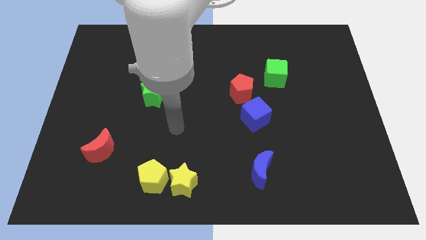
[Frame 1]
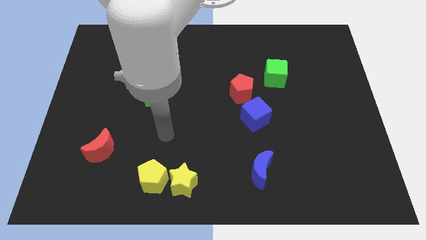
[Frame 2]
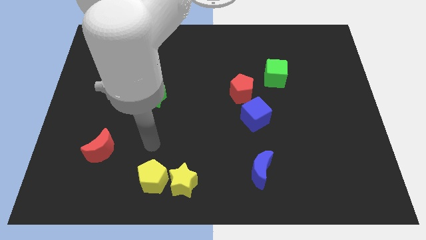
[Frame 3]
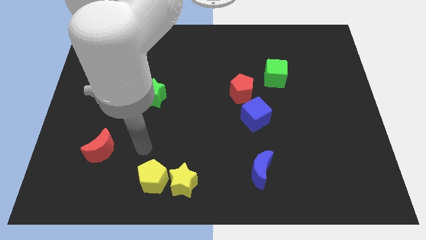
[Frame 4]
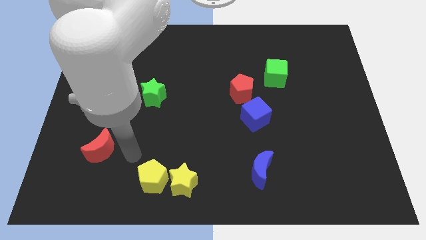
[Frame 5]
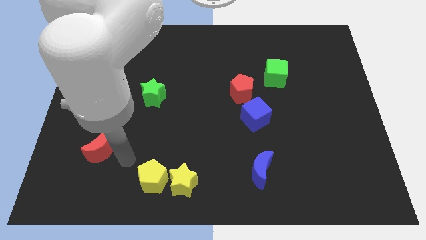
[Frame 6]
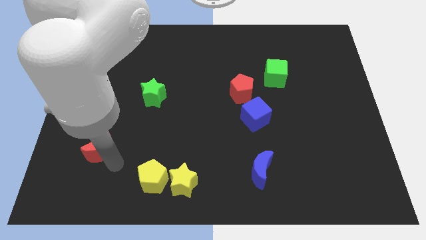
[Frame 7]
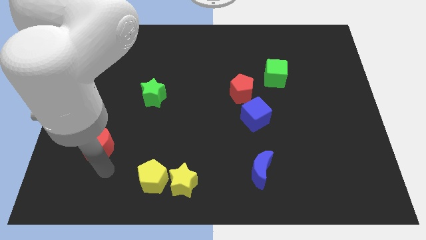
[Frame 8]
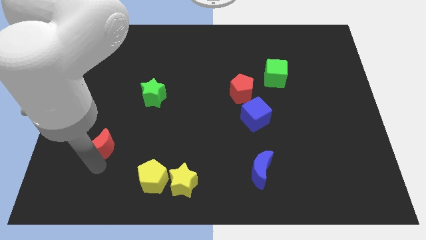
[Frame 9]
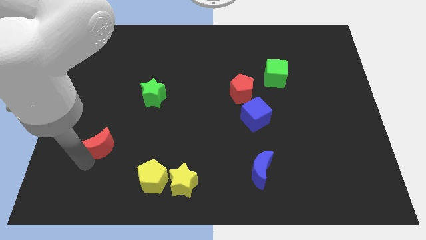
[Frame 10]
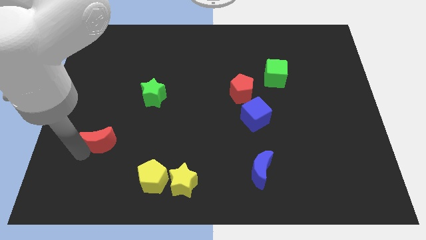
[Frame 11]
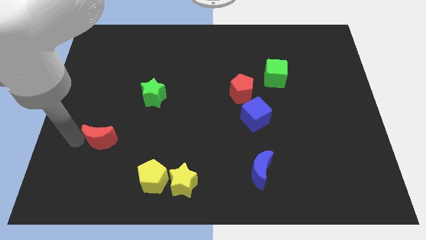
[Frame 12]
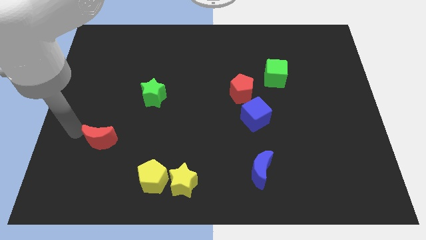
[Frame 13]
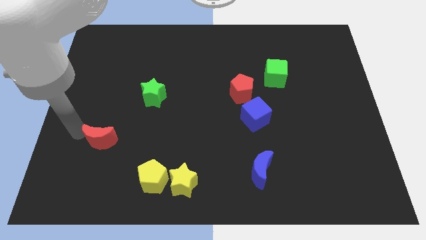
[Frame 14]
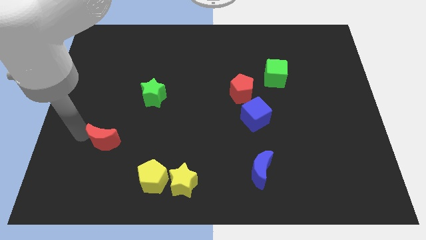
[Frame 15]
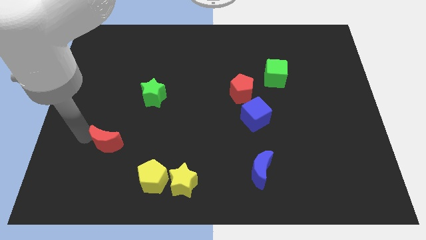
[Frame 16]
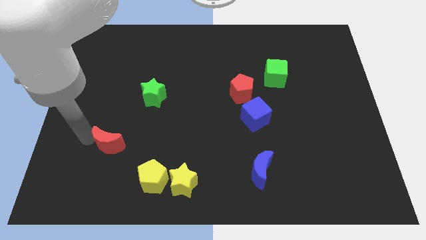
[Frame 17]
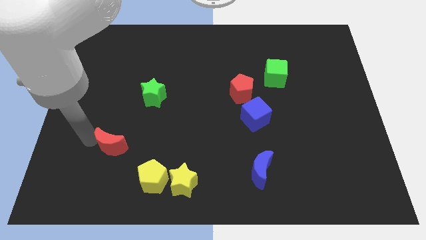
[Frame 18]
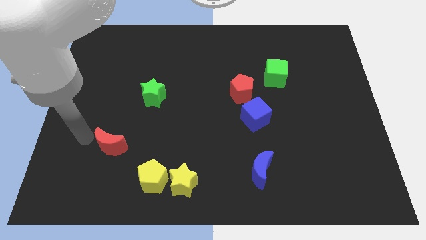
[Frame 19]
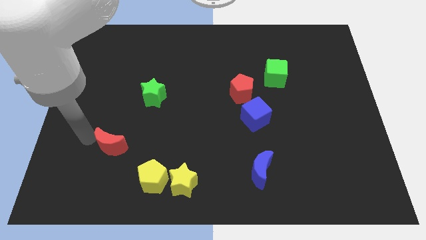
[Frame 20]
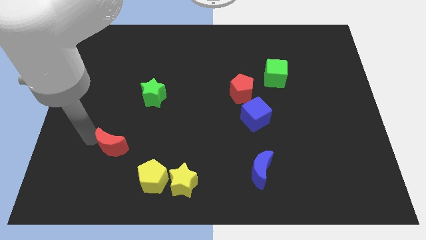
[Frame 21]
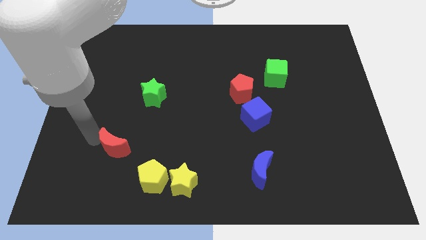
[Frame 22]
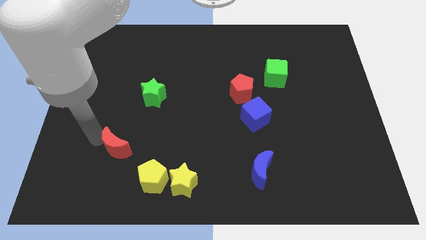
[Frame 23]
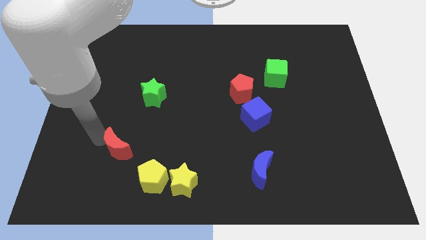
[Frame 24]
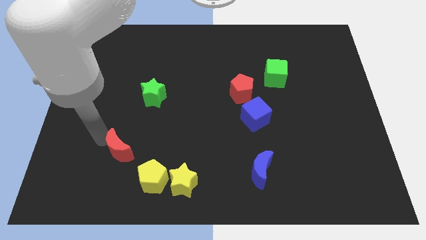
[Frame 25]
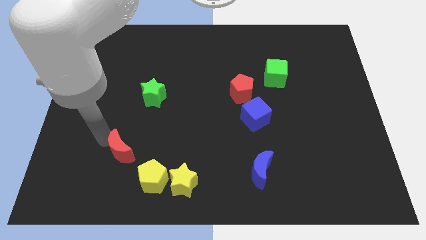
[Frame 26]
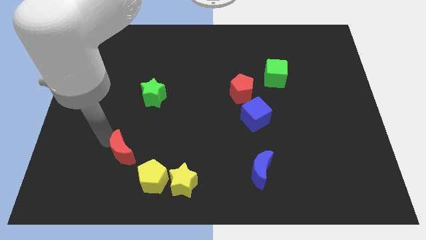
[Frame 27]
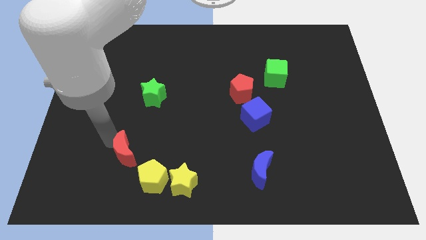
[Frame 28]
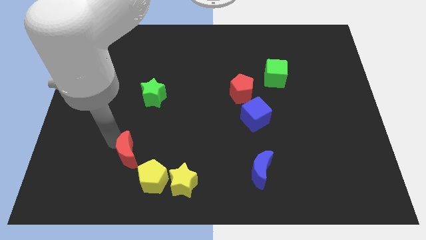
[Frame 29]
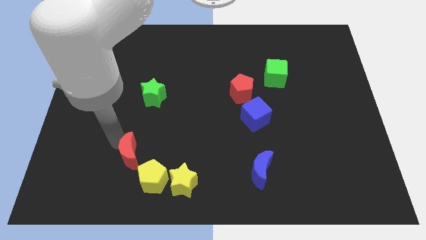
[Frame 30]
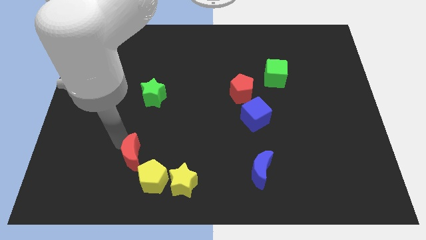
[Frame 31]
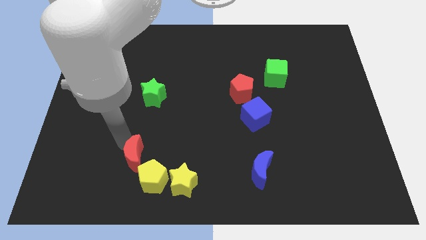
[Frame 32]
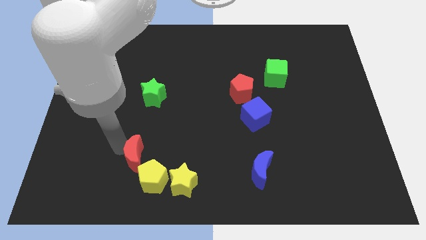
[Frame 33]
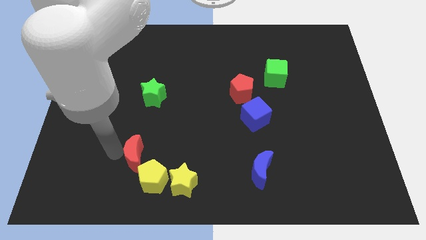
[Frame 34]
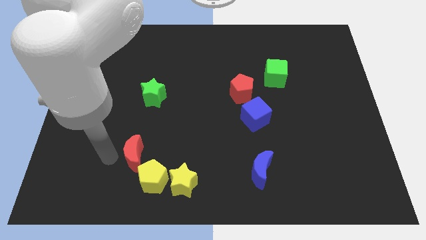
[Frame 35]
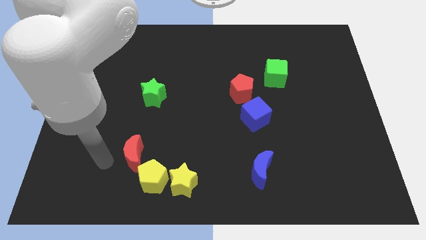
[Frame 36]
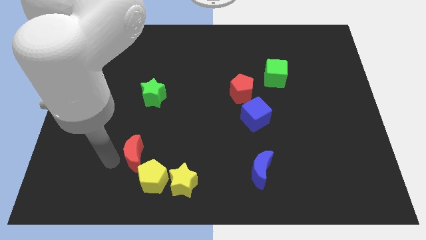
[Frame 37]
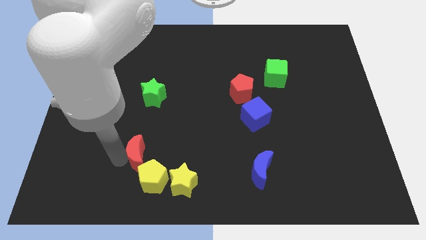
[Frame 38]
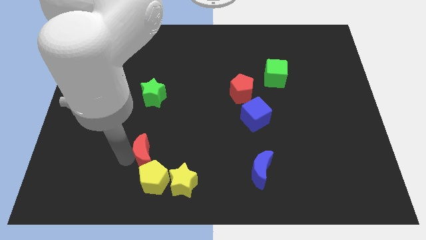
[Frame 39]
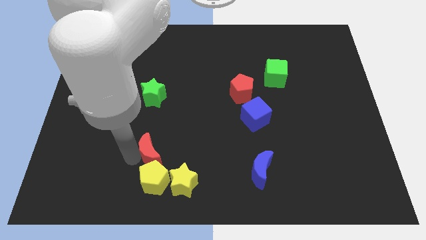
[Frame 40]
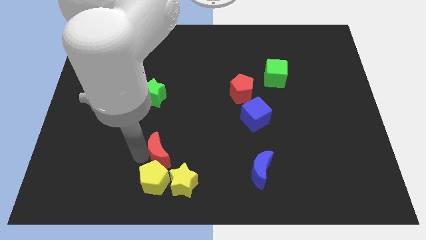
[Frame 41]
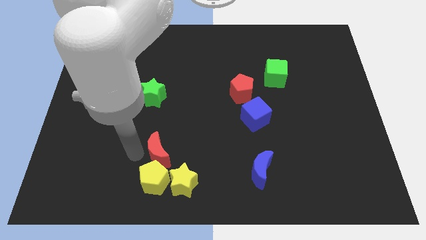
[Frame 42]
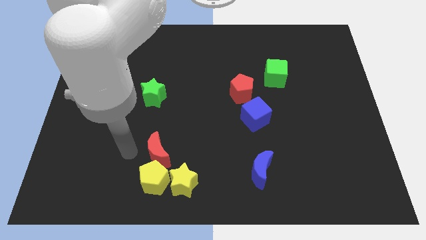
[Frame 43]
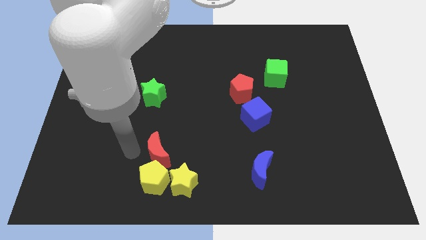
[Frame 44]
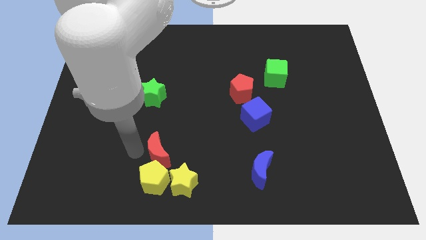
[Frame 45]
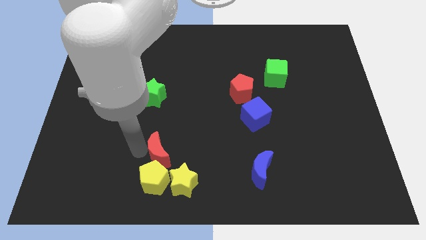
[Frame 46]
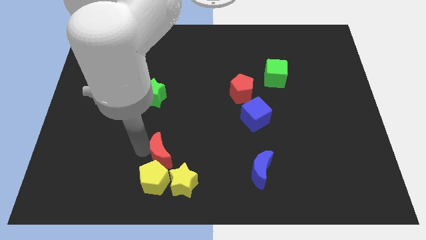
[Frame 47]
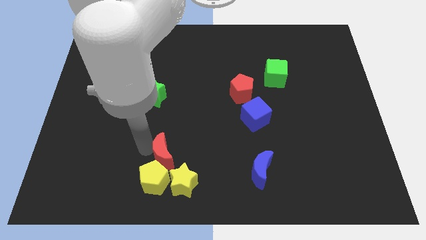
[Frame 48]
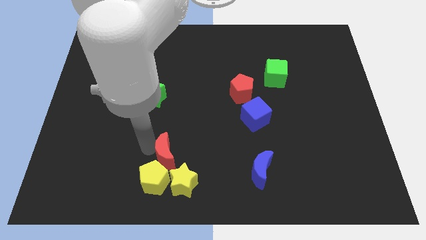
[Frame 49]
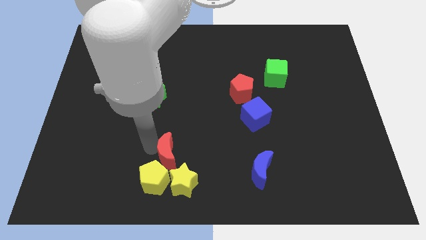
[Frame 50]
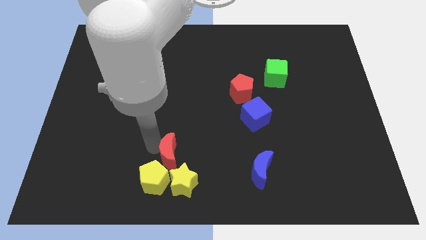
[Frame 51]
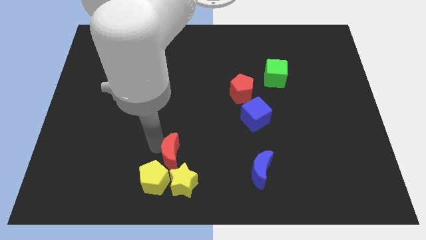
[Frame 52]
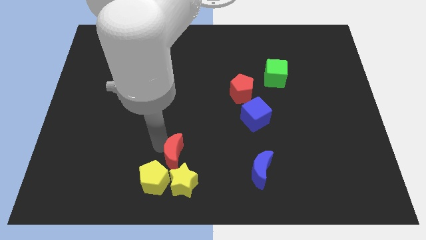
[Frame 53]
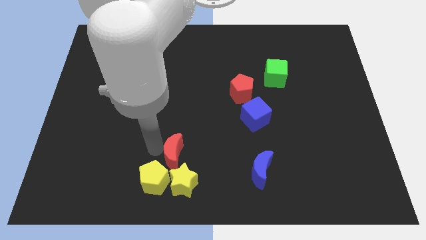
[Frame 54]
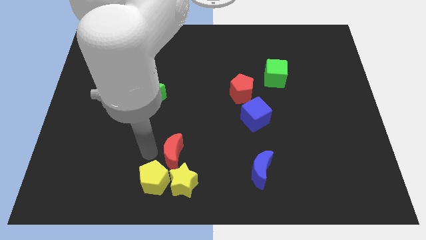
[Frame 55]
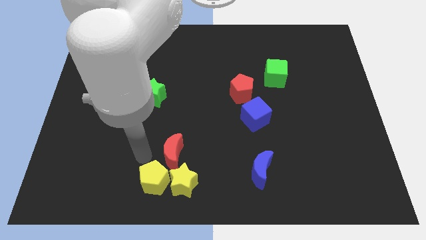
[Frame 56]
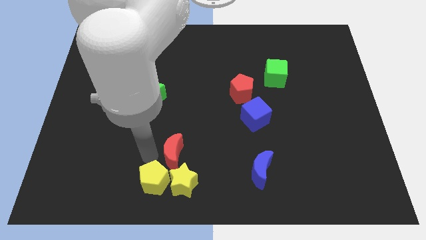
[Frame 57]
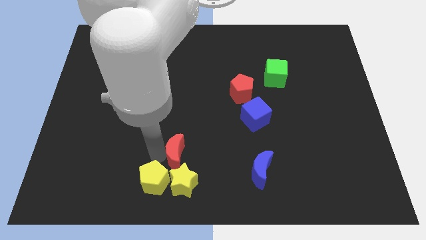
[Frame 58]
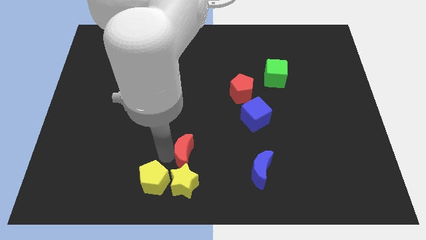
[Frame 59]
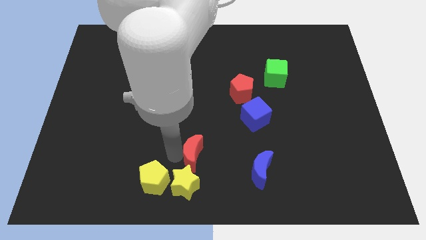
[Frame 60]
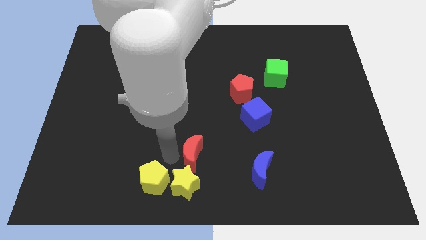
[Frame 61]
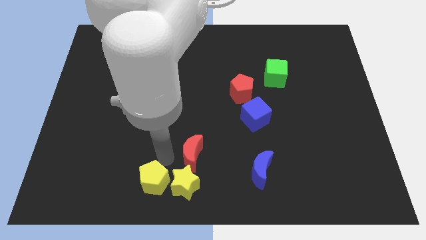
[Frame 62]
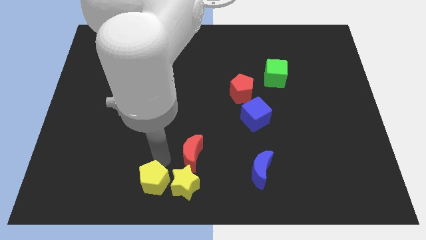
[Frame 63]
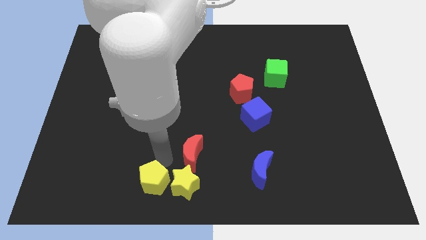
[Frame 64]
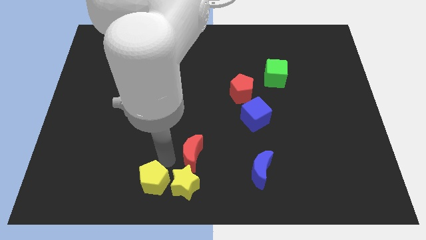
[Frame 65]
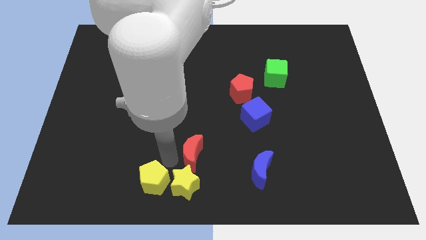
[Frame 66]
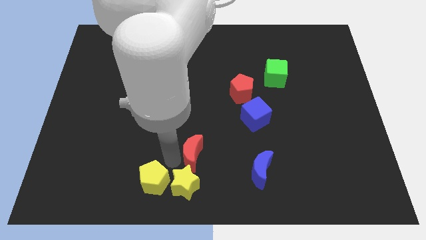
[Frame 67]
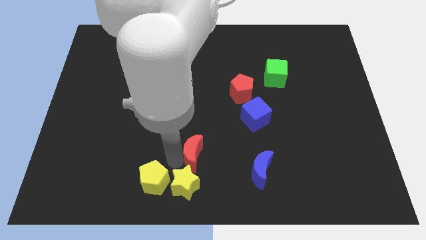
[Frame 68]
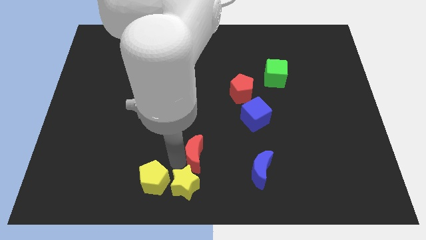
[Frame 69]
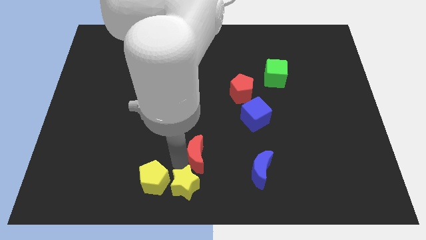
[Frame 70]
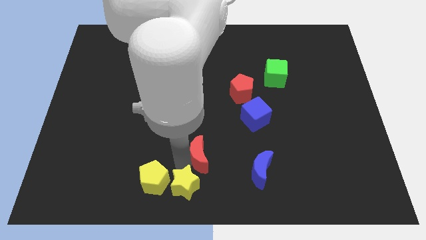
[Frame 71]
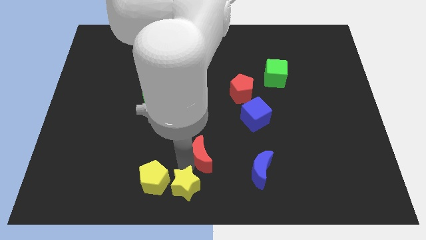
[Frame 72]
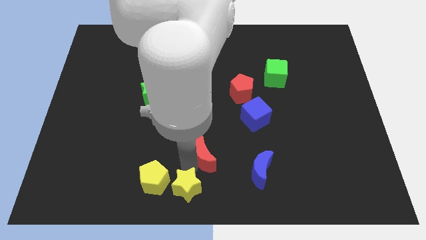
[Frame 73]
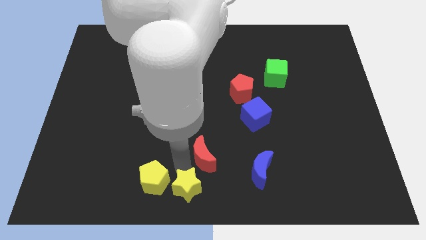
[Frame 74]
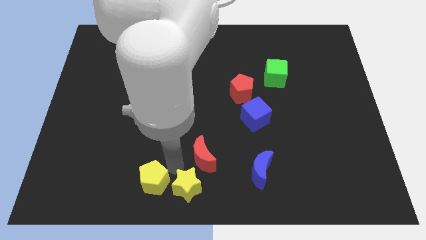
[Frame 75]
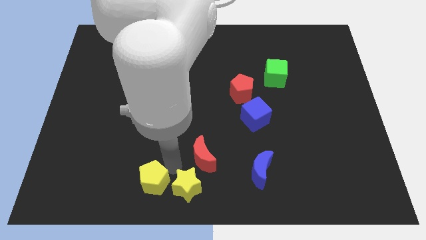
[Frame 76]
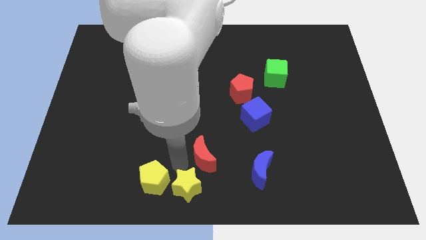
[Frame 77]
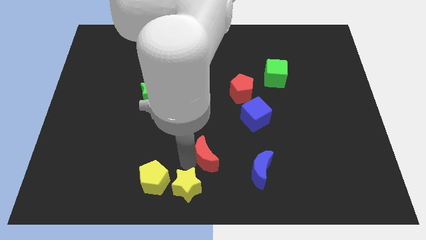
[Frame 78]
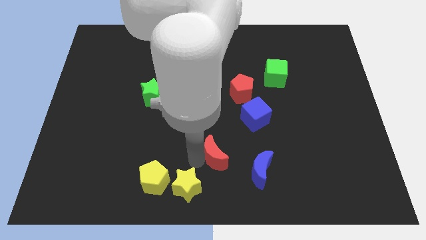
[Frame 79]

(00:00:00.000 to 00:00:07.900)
put the red moon to the top left of the blue moon
